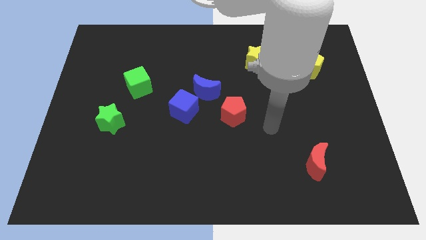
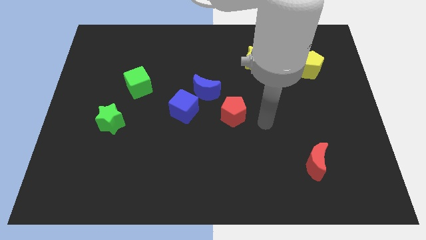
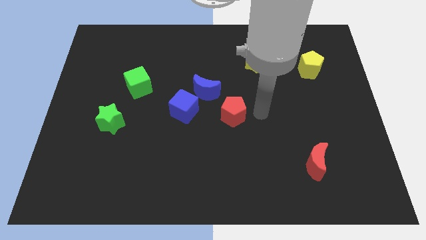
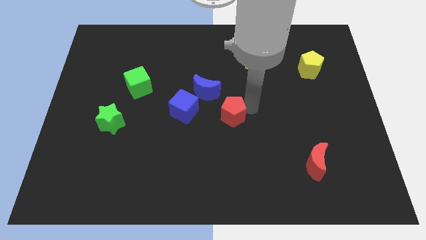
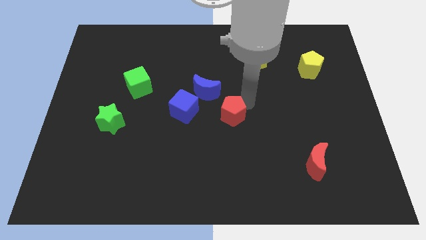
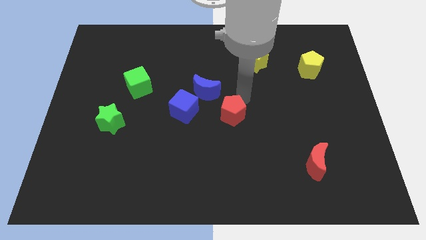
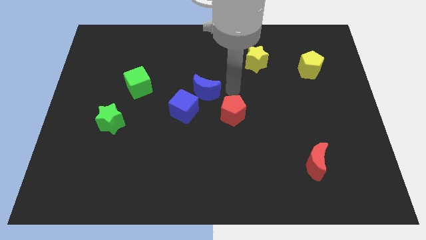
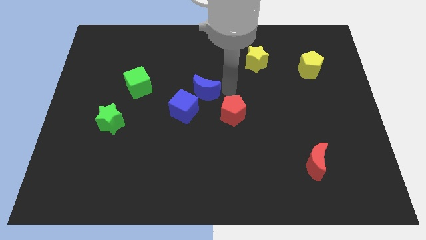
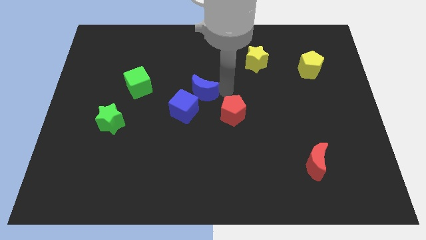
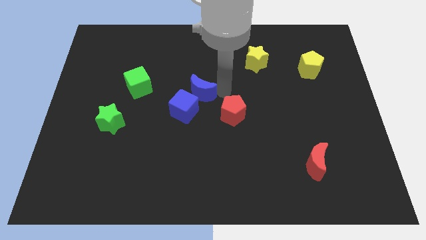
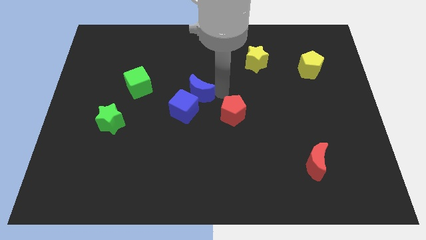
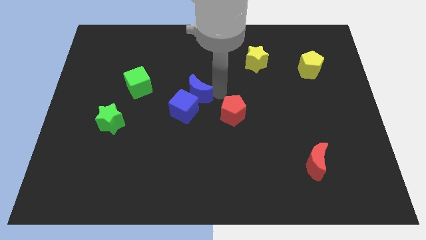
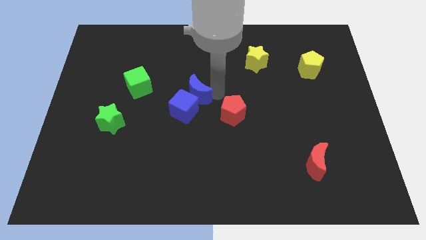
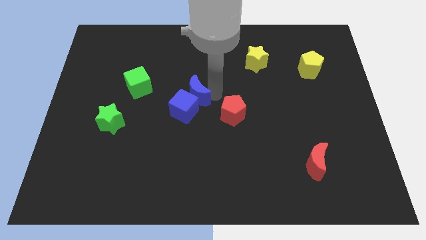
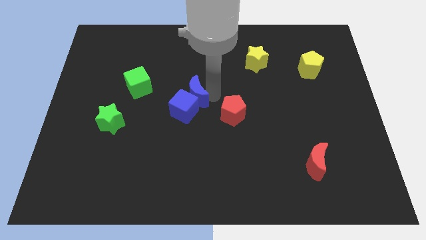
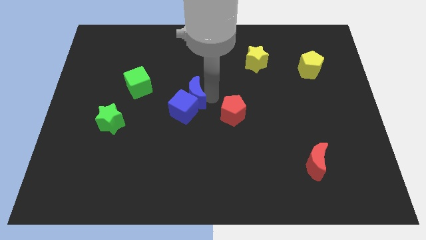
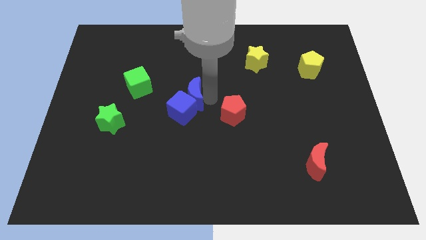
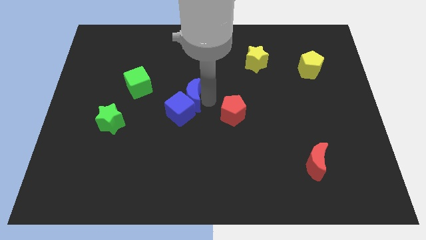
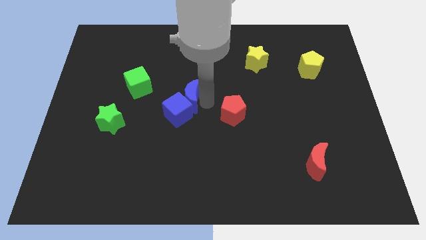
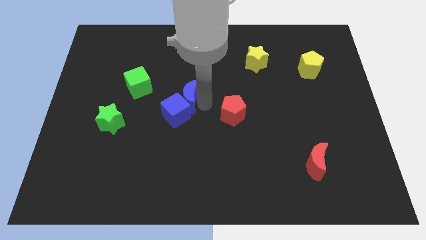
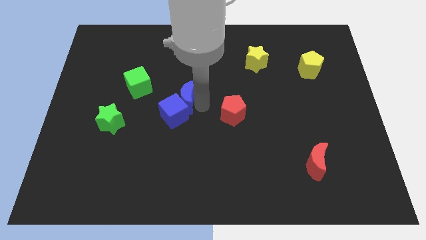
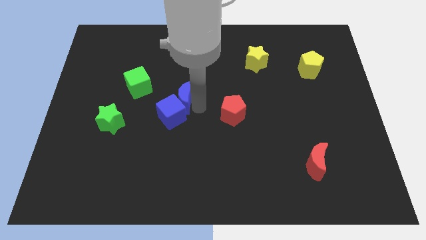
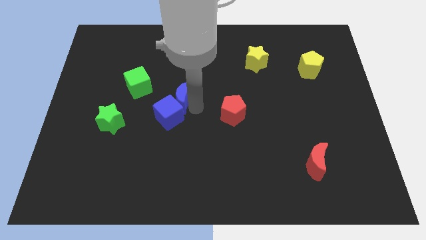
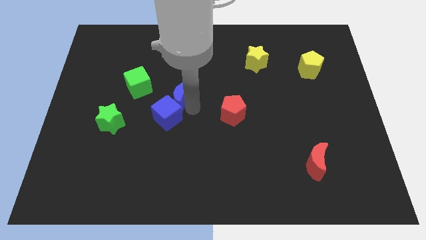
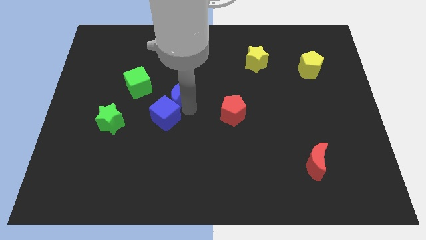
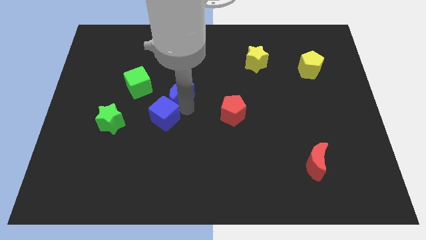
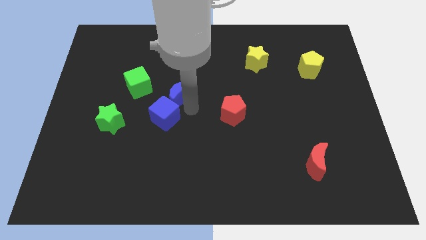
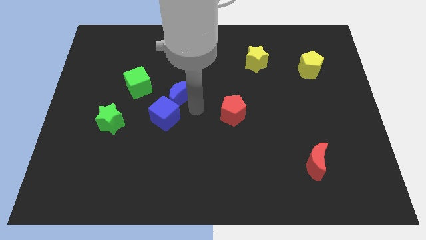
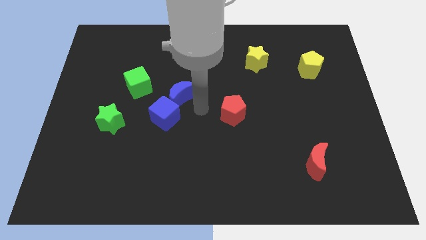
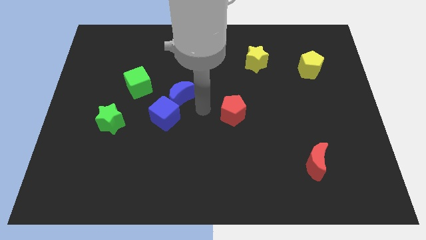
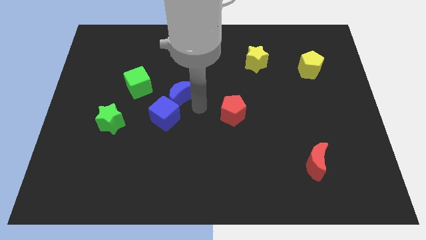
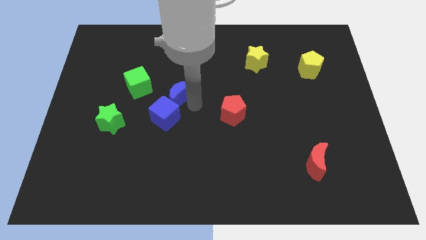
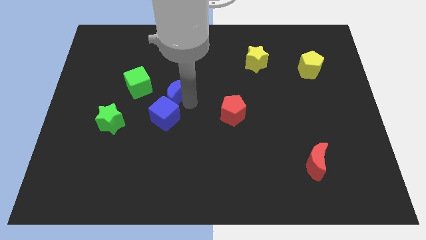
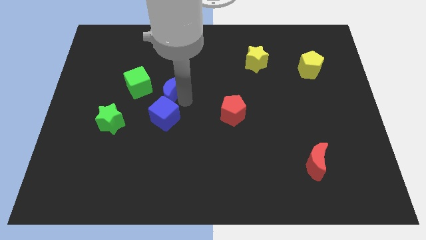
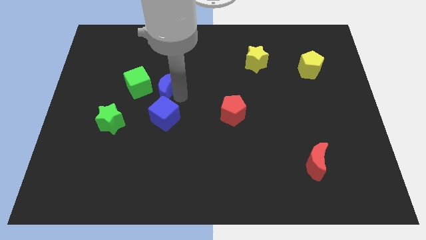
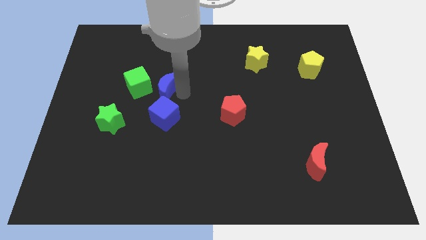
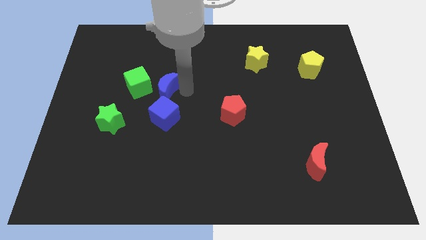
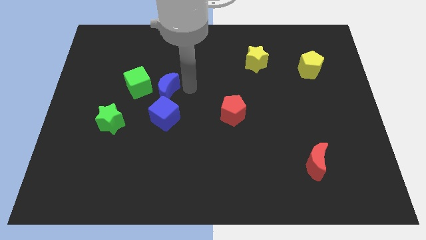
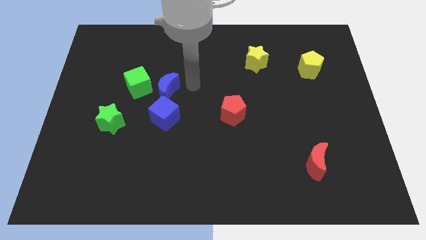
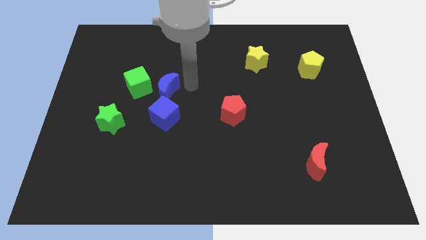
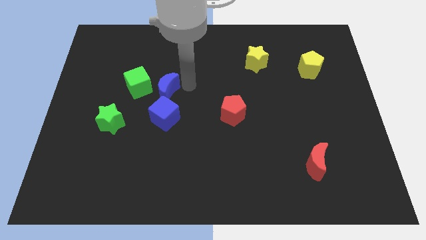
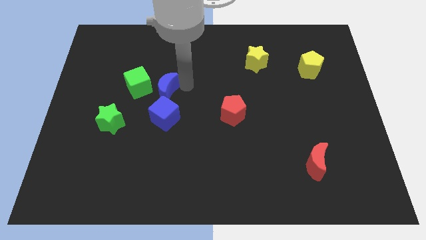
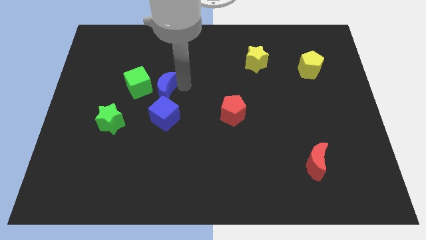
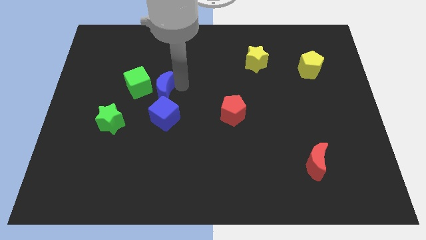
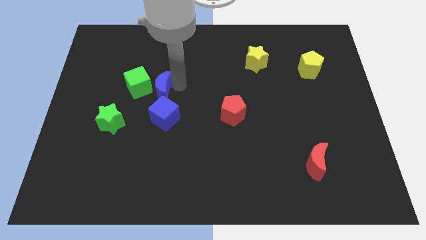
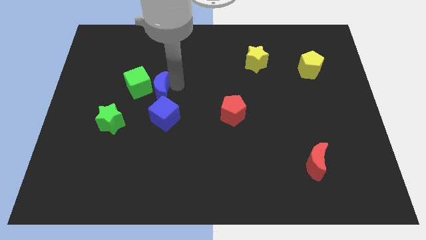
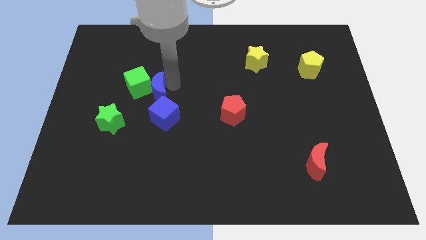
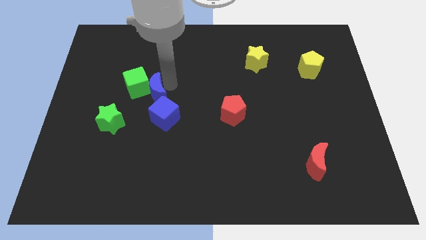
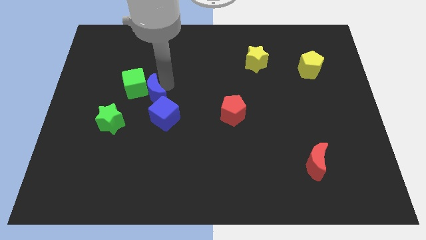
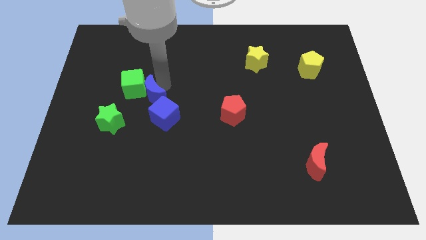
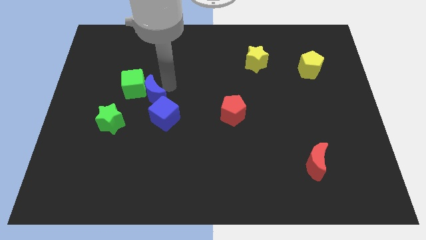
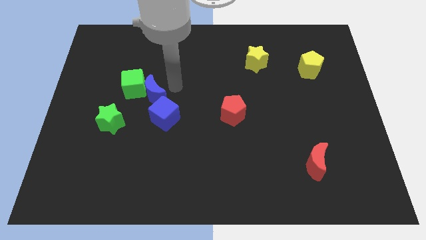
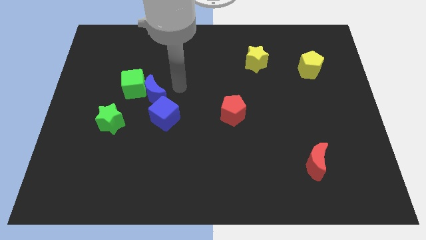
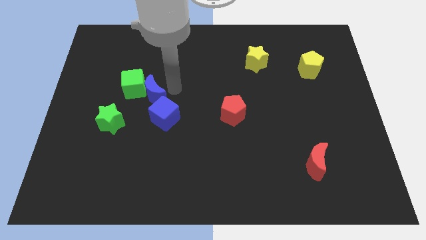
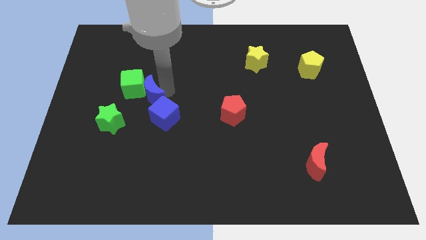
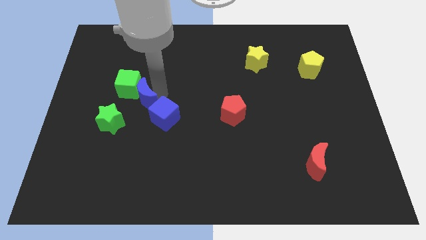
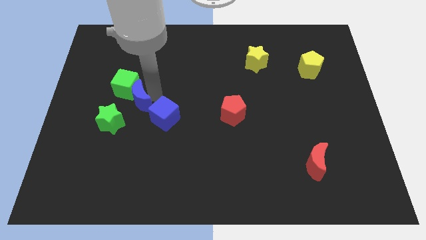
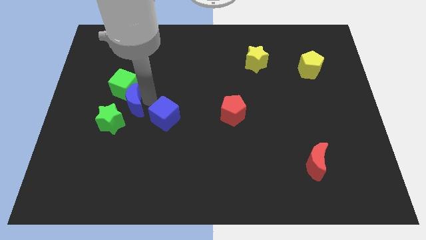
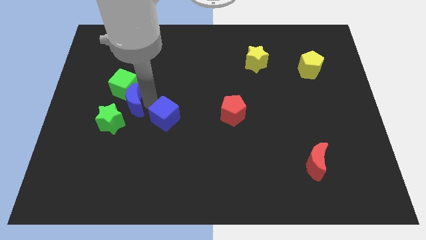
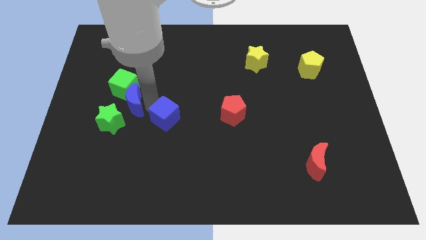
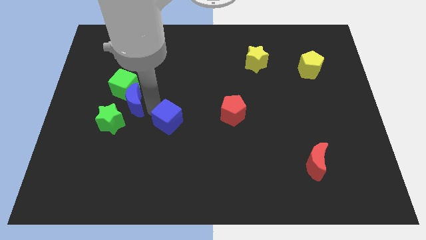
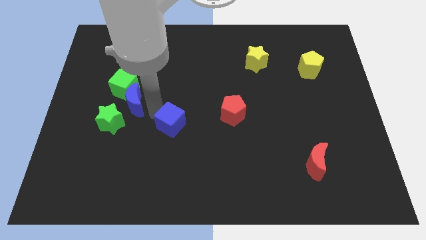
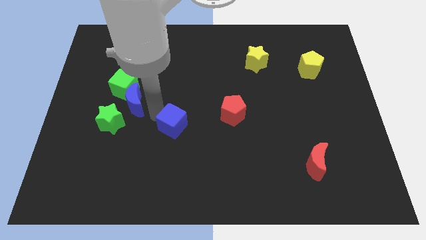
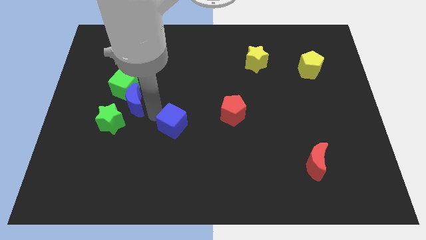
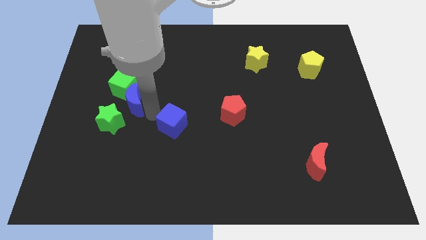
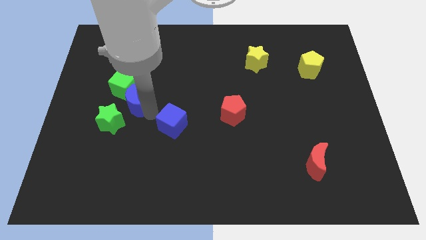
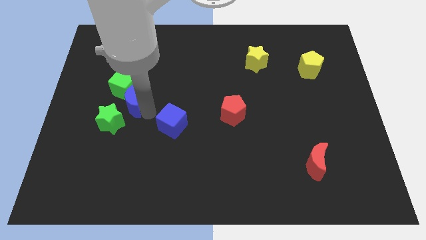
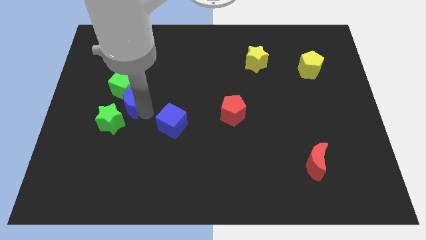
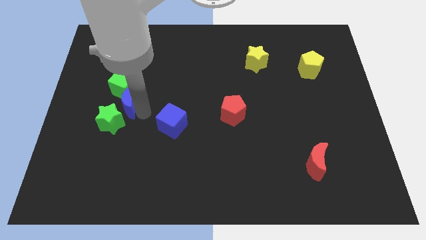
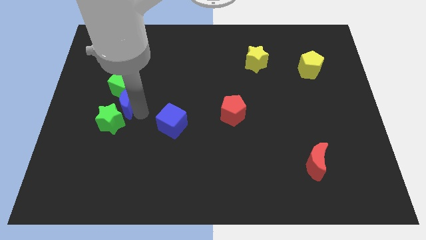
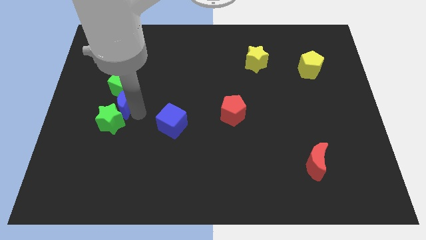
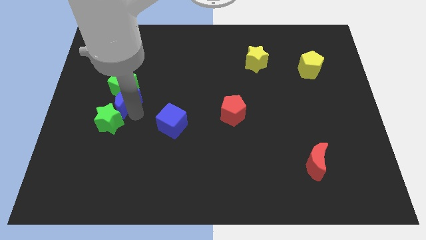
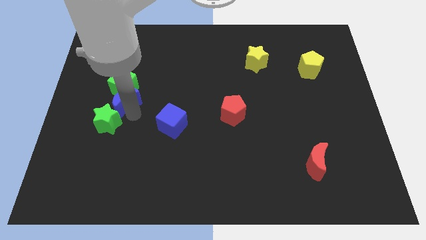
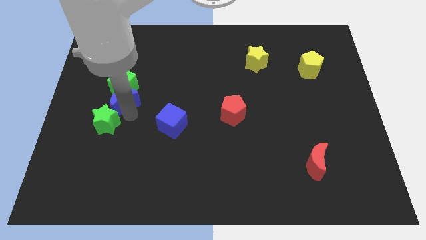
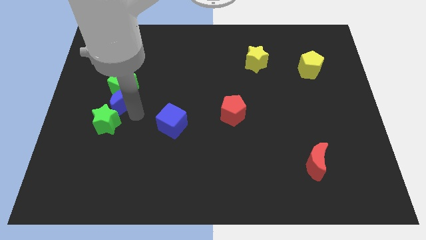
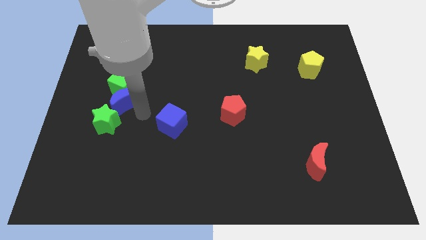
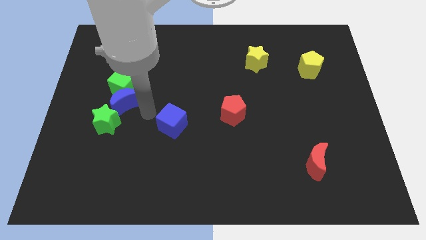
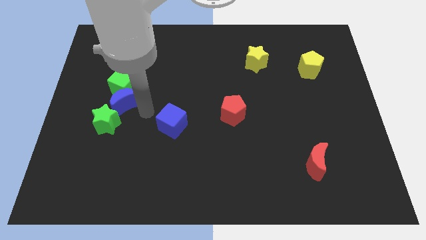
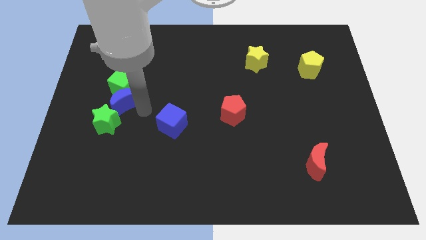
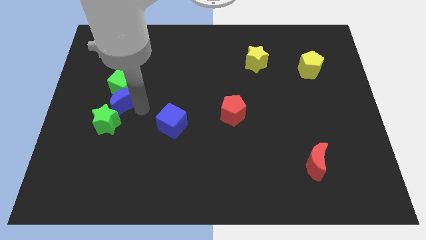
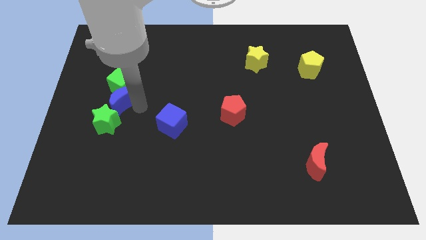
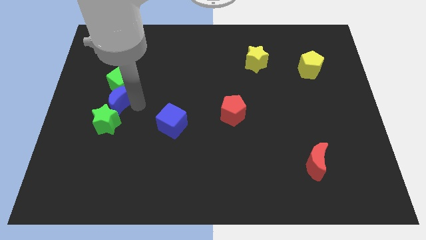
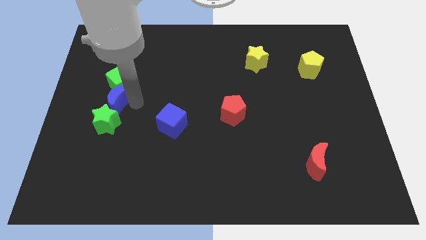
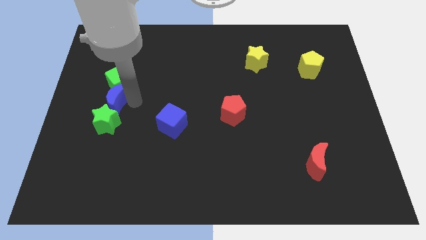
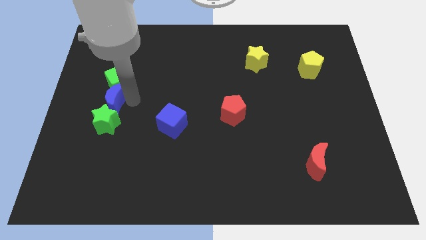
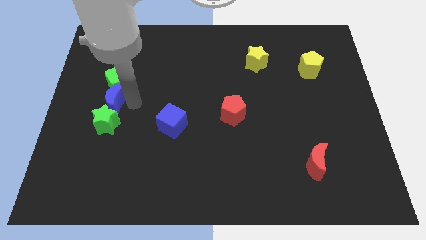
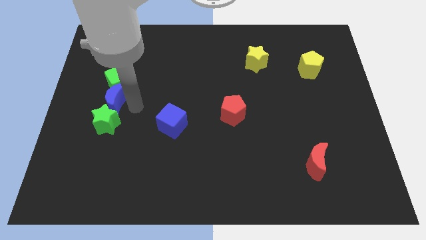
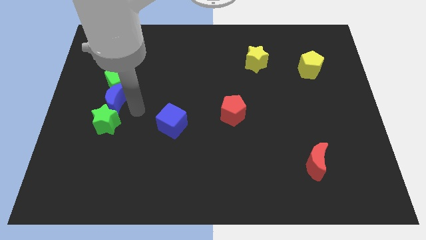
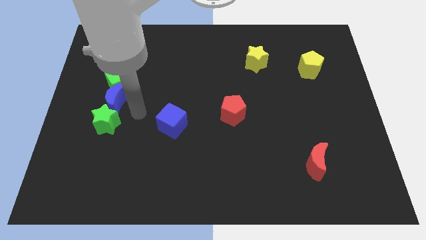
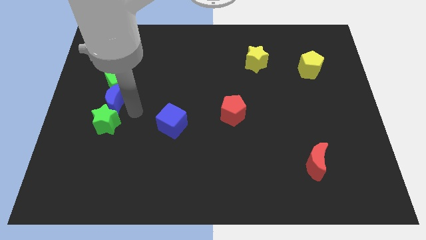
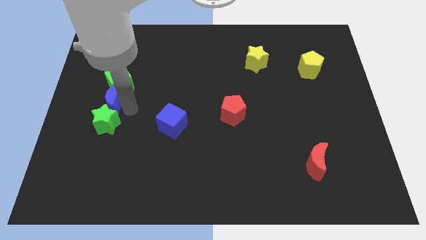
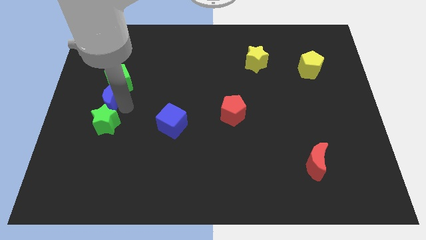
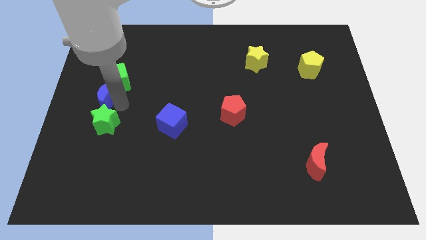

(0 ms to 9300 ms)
move the blue moon to the left side
